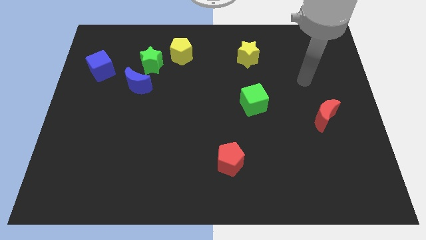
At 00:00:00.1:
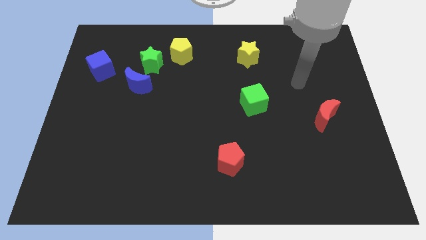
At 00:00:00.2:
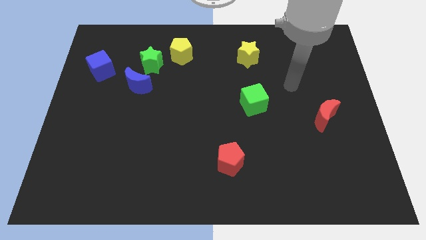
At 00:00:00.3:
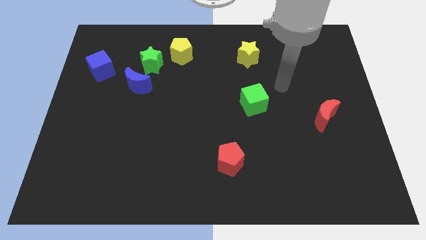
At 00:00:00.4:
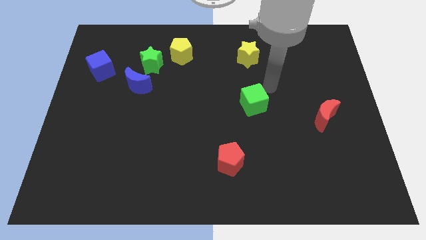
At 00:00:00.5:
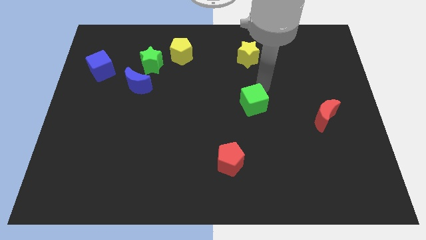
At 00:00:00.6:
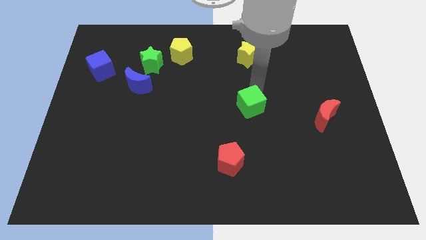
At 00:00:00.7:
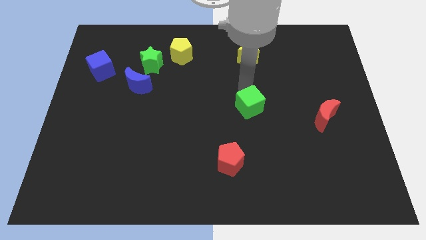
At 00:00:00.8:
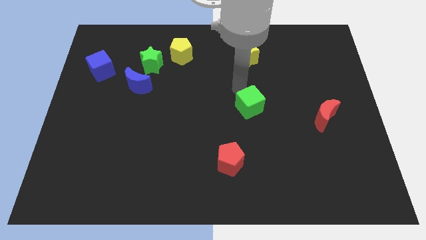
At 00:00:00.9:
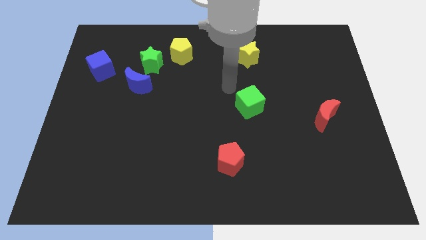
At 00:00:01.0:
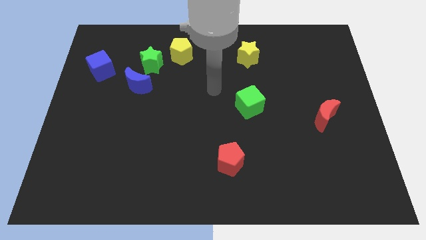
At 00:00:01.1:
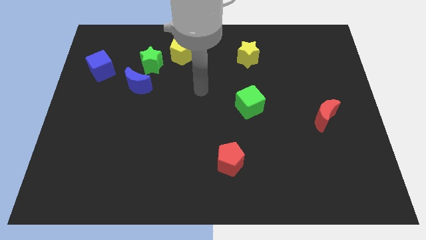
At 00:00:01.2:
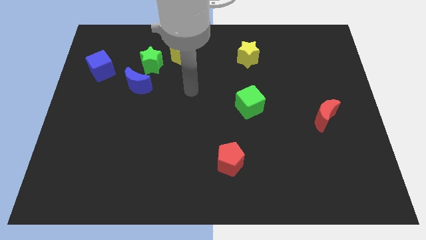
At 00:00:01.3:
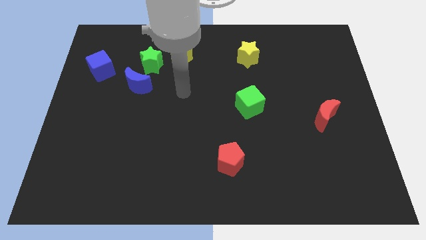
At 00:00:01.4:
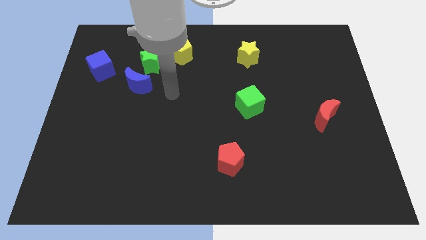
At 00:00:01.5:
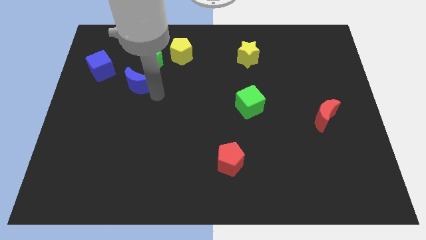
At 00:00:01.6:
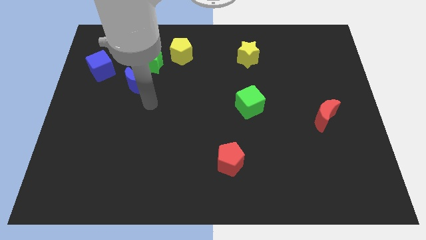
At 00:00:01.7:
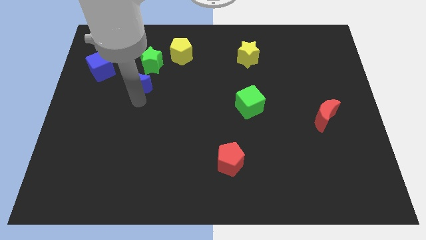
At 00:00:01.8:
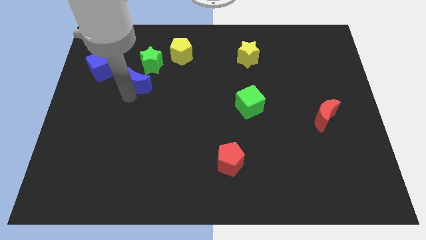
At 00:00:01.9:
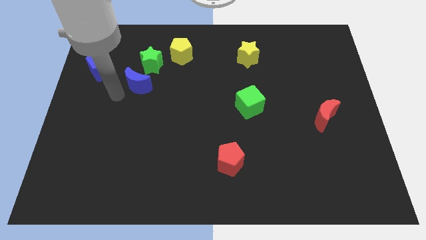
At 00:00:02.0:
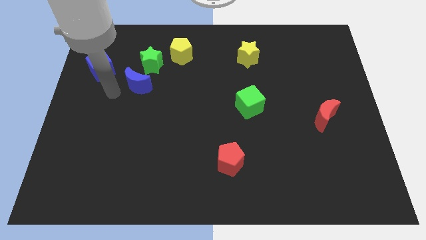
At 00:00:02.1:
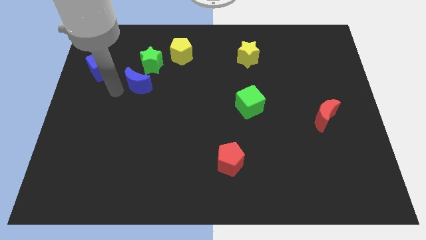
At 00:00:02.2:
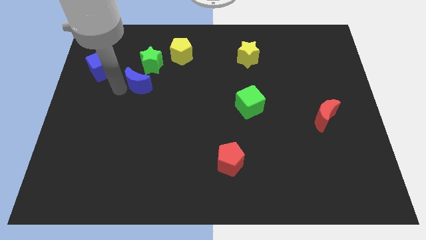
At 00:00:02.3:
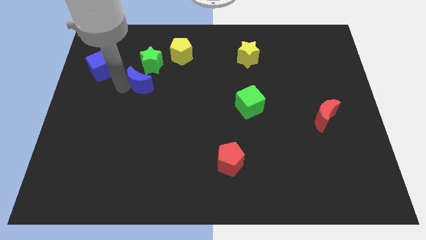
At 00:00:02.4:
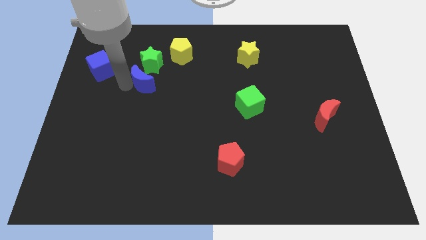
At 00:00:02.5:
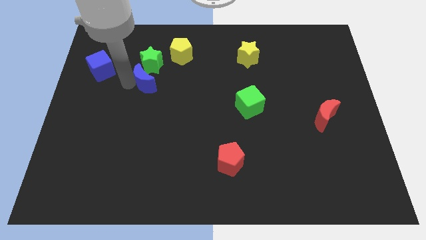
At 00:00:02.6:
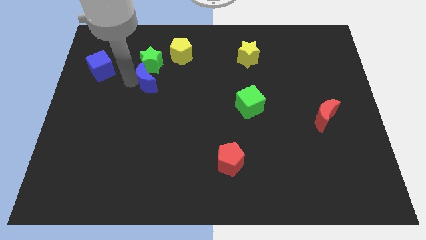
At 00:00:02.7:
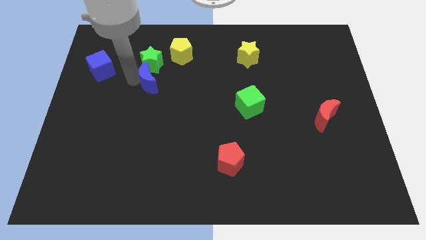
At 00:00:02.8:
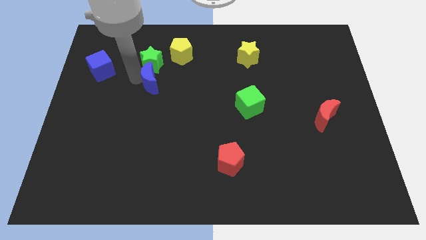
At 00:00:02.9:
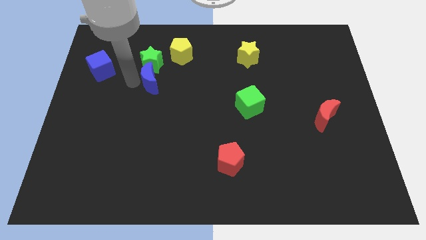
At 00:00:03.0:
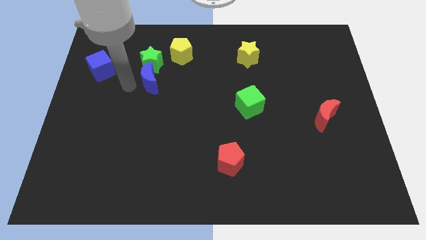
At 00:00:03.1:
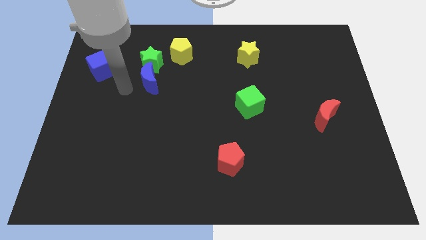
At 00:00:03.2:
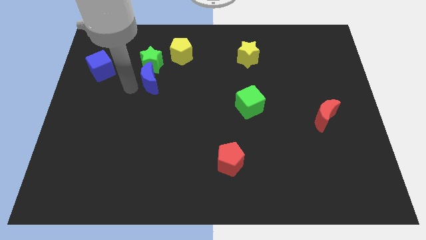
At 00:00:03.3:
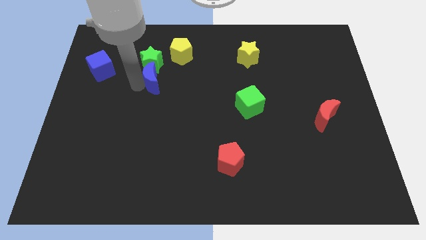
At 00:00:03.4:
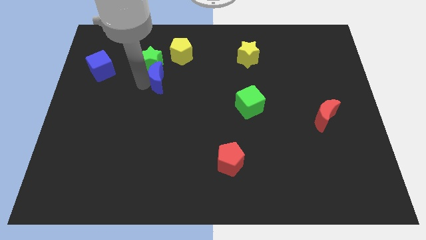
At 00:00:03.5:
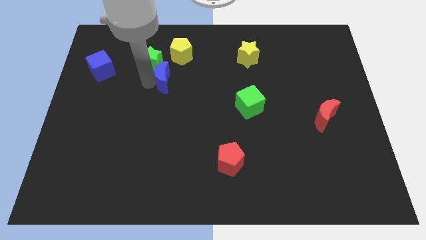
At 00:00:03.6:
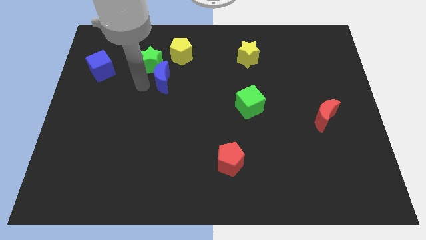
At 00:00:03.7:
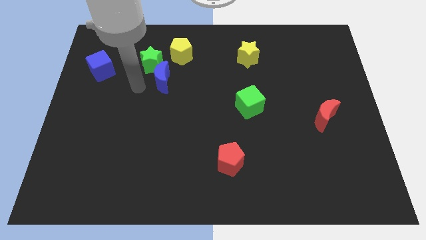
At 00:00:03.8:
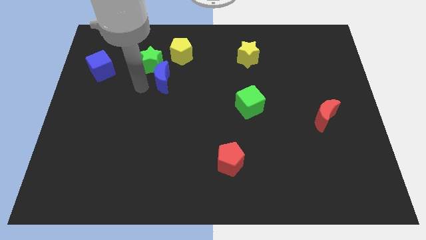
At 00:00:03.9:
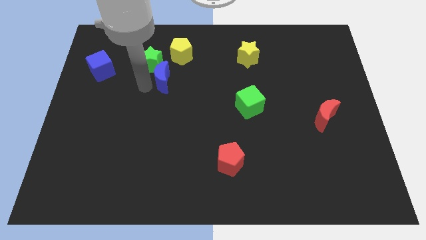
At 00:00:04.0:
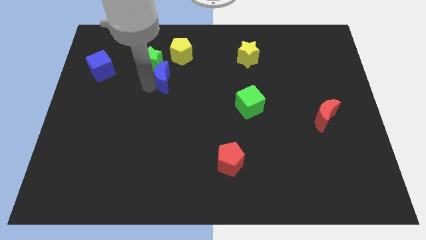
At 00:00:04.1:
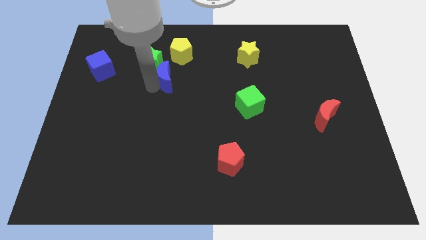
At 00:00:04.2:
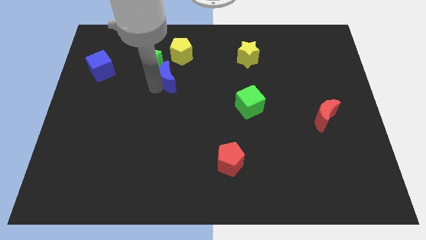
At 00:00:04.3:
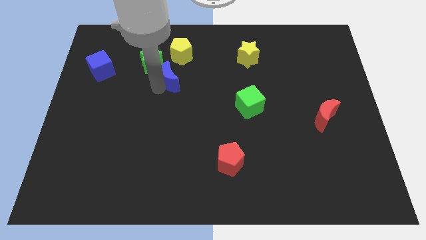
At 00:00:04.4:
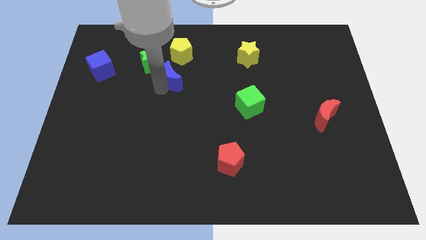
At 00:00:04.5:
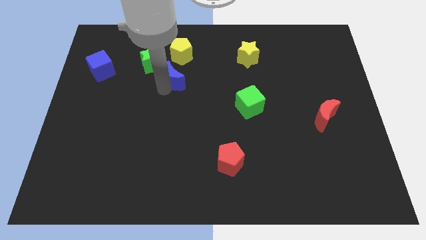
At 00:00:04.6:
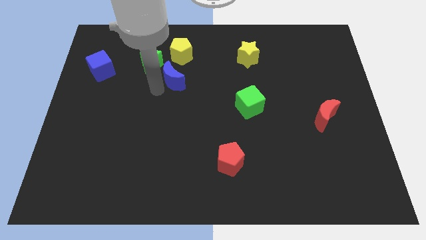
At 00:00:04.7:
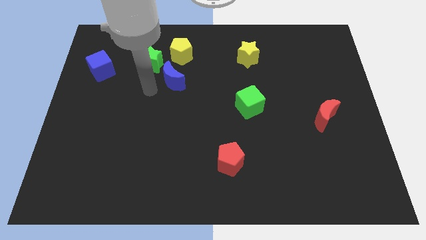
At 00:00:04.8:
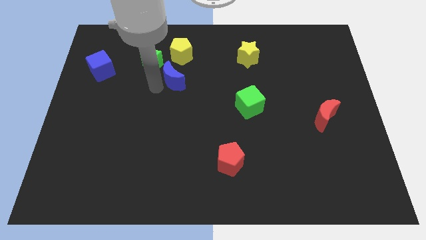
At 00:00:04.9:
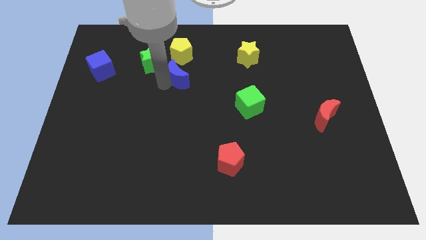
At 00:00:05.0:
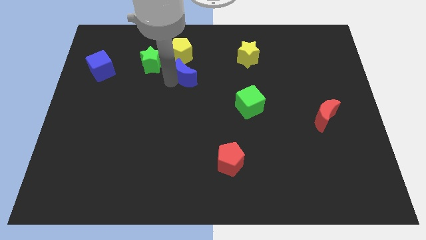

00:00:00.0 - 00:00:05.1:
move the blue moon to the bottom right of the yellow pentagon

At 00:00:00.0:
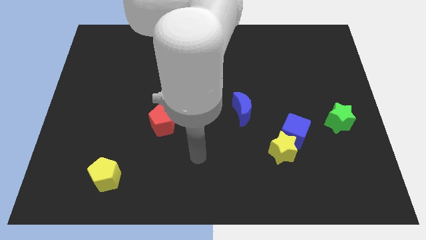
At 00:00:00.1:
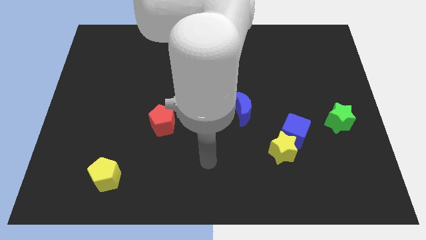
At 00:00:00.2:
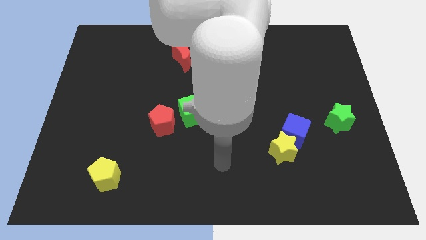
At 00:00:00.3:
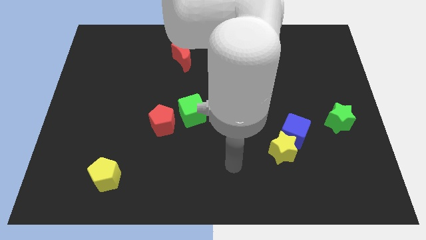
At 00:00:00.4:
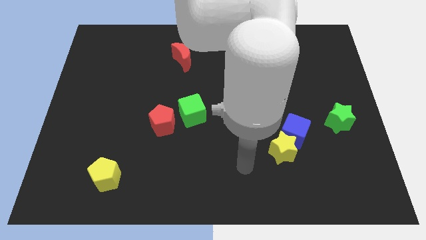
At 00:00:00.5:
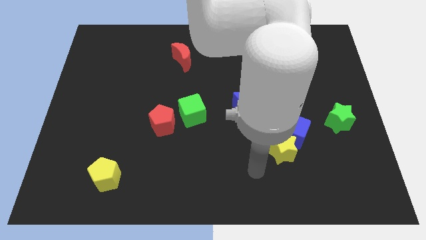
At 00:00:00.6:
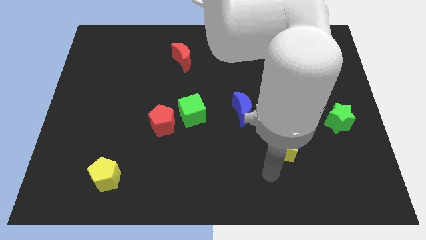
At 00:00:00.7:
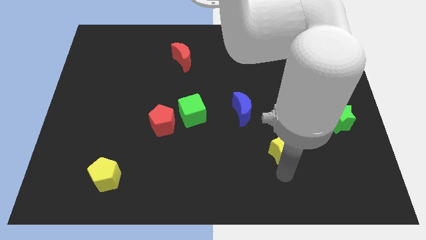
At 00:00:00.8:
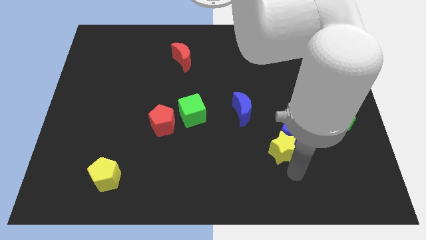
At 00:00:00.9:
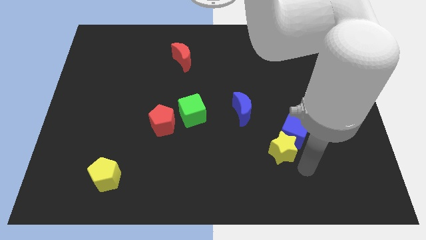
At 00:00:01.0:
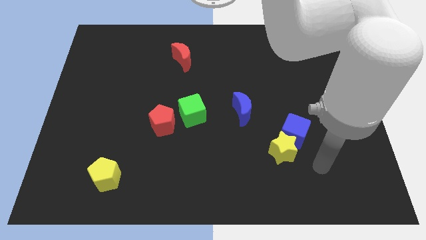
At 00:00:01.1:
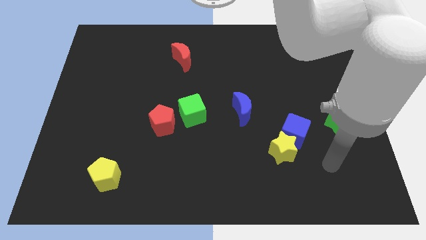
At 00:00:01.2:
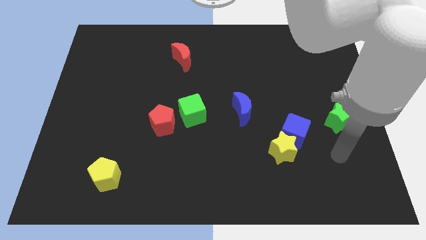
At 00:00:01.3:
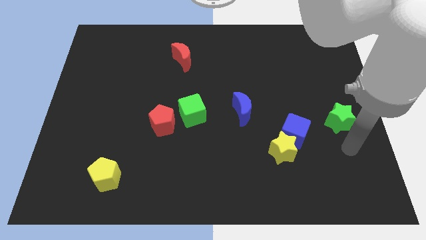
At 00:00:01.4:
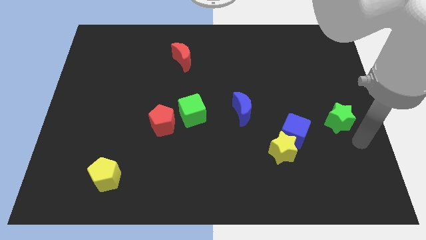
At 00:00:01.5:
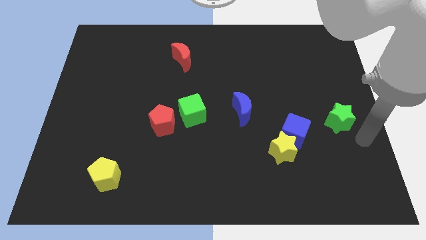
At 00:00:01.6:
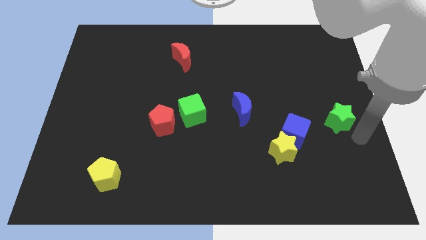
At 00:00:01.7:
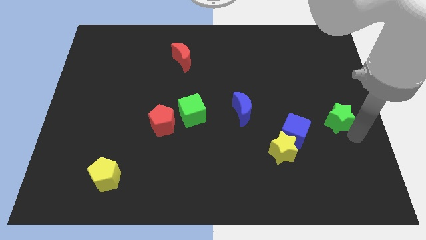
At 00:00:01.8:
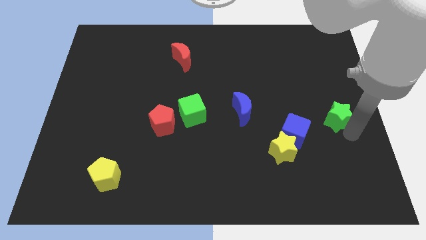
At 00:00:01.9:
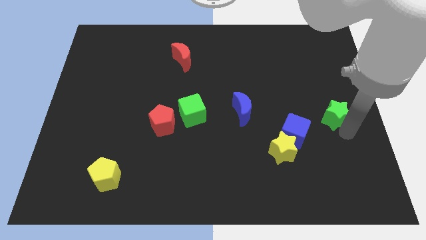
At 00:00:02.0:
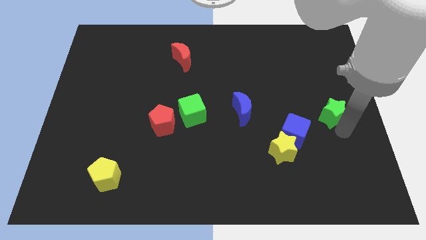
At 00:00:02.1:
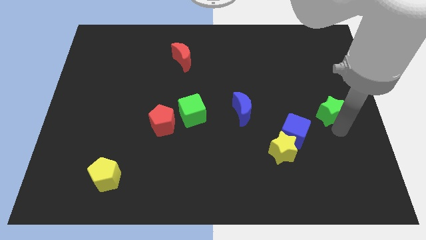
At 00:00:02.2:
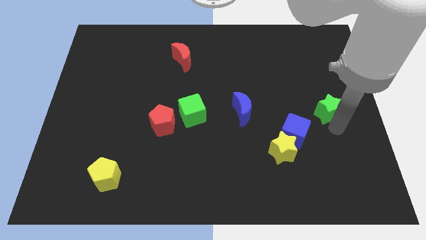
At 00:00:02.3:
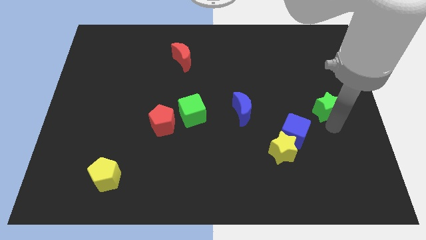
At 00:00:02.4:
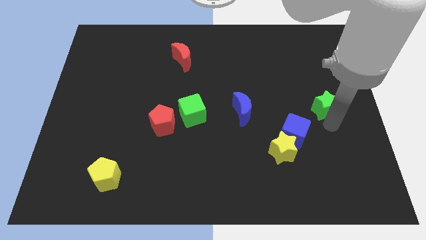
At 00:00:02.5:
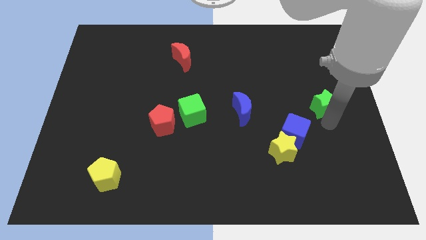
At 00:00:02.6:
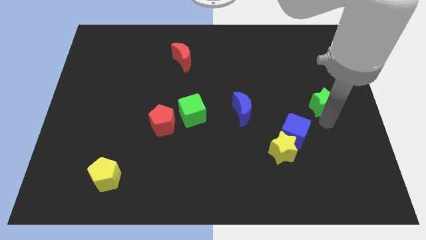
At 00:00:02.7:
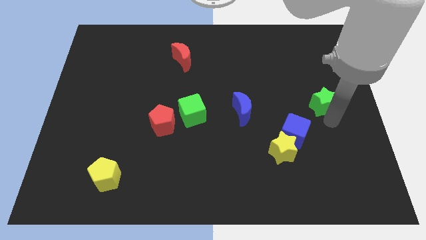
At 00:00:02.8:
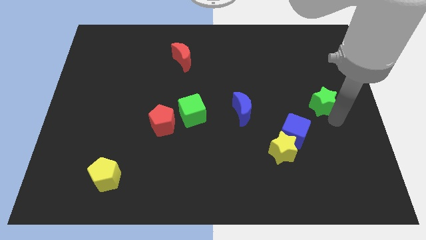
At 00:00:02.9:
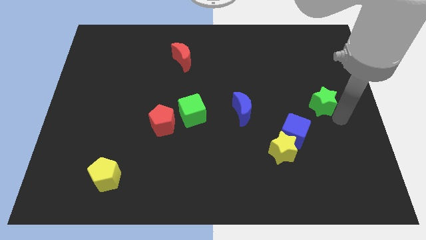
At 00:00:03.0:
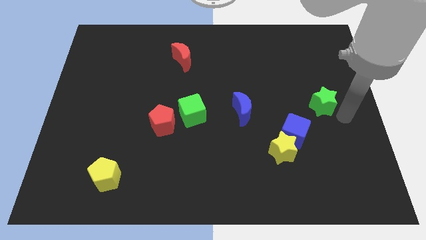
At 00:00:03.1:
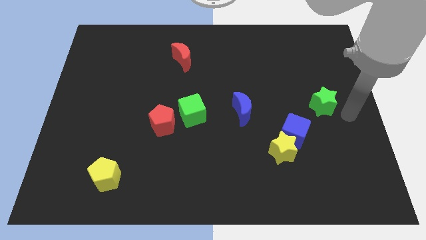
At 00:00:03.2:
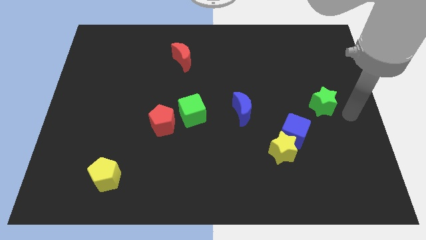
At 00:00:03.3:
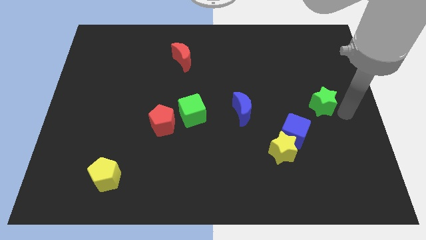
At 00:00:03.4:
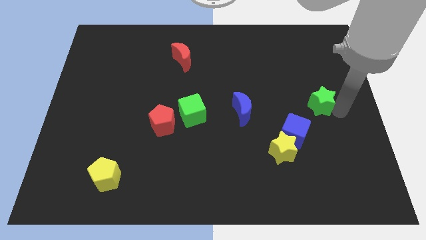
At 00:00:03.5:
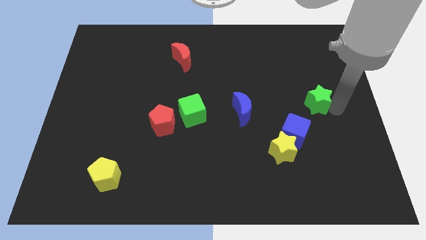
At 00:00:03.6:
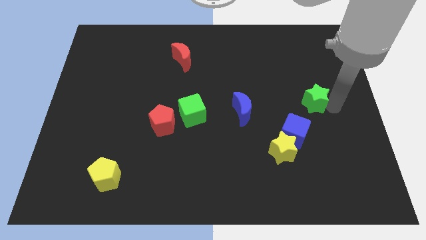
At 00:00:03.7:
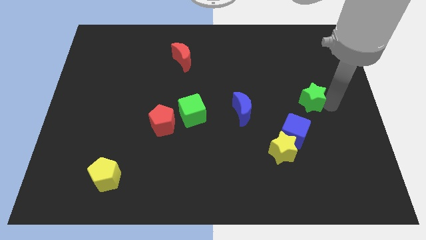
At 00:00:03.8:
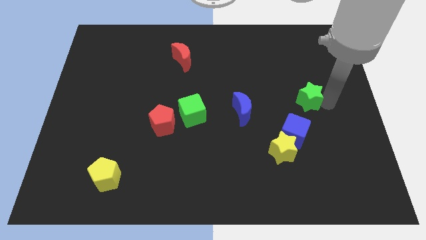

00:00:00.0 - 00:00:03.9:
put the green star above the blue cube
